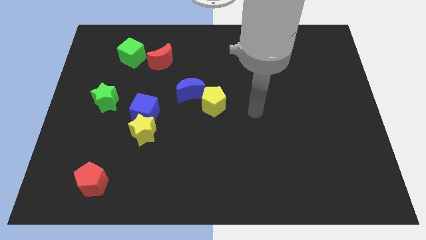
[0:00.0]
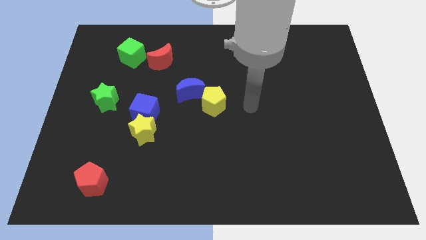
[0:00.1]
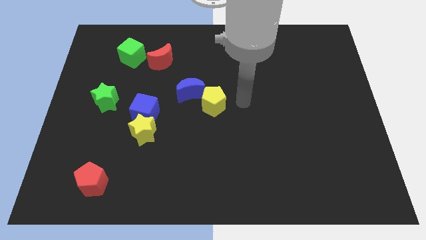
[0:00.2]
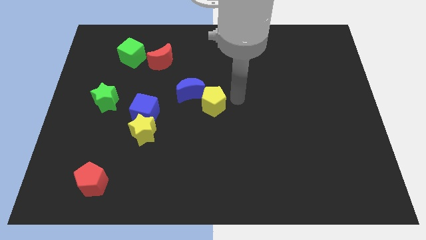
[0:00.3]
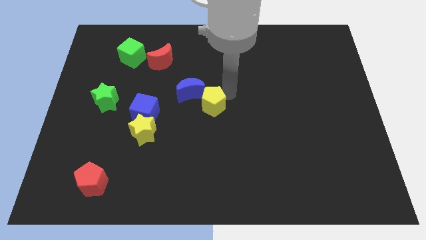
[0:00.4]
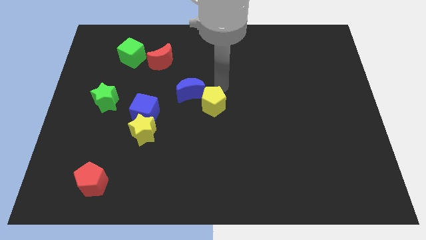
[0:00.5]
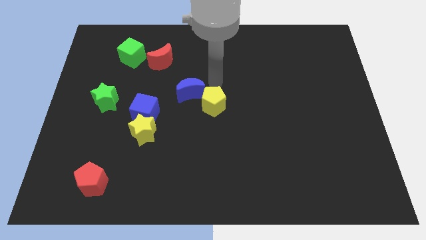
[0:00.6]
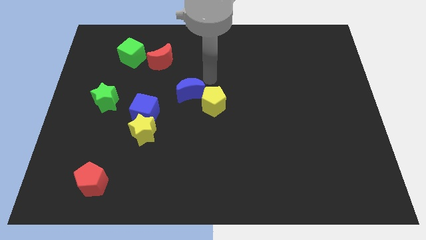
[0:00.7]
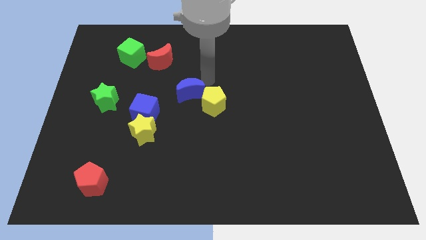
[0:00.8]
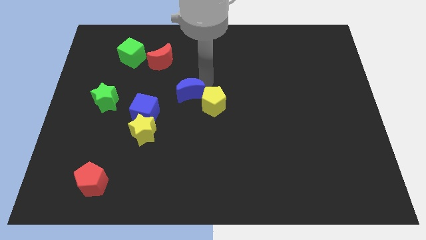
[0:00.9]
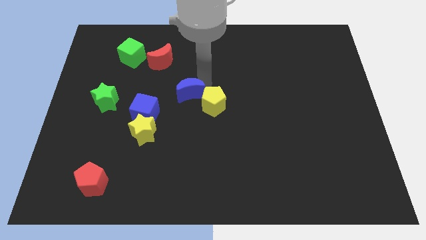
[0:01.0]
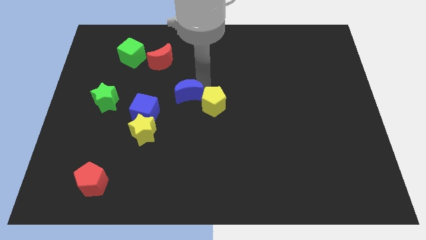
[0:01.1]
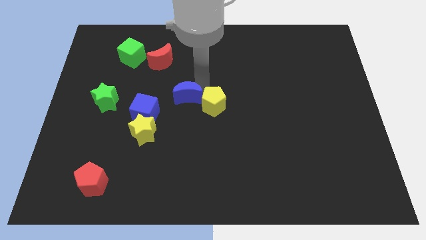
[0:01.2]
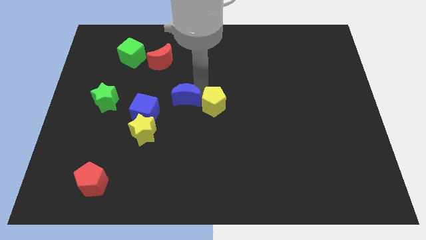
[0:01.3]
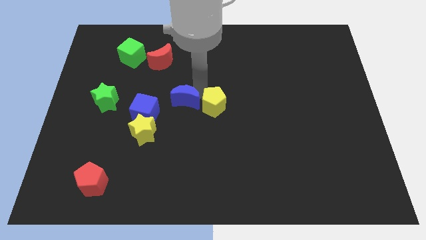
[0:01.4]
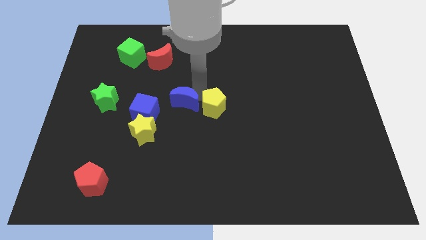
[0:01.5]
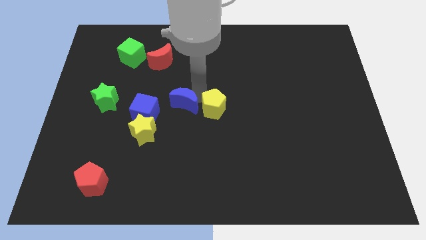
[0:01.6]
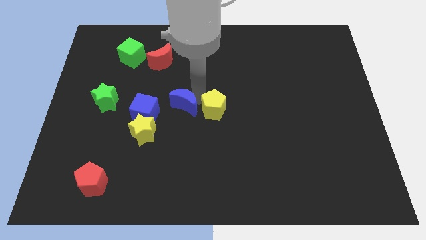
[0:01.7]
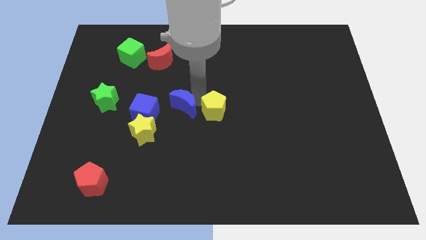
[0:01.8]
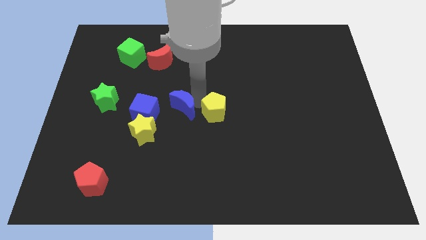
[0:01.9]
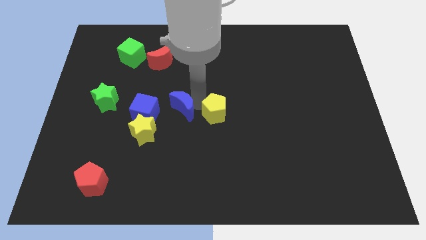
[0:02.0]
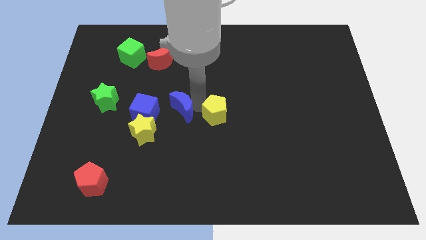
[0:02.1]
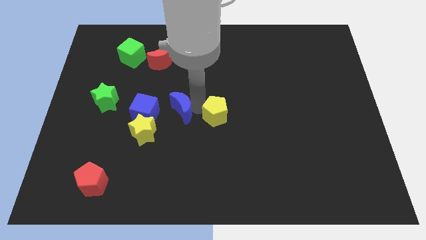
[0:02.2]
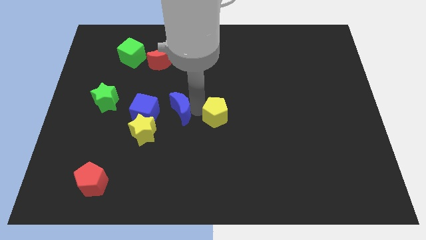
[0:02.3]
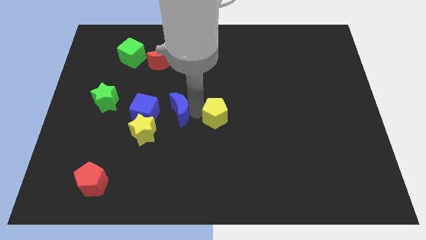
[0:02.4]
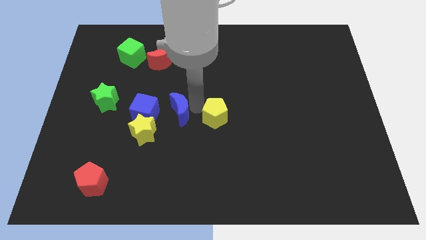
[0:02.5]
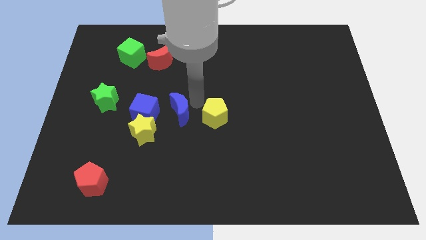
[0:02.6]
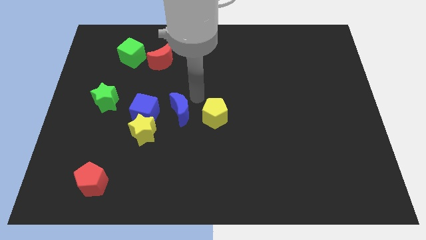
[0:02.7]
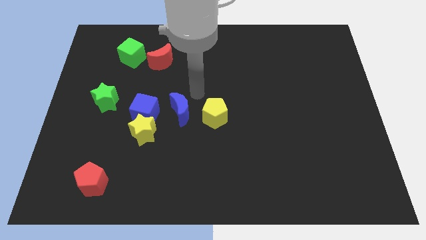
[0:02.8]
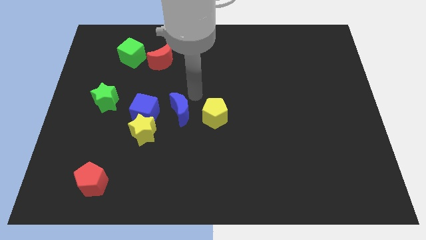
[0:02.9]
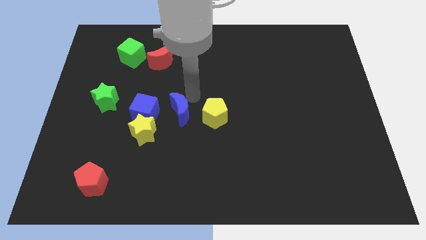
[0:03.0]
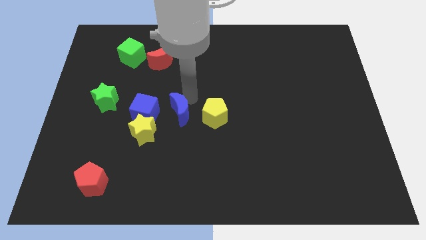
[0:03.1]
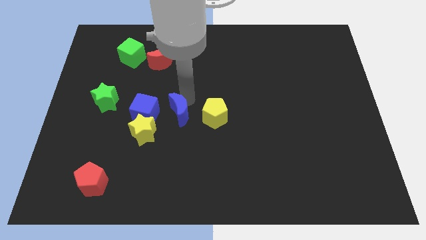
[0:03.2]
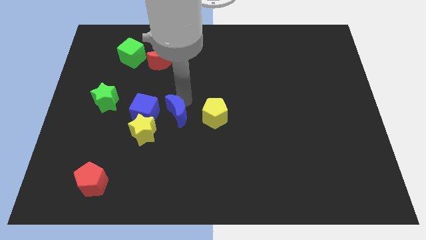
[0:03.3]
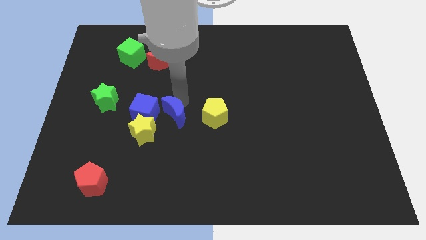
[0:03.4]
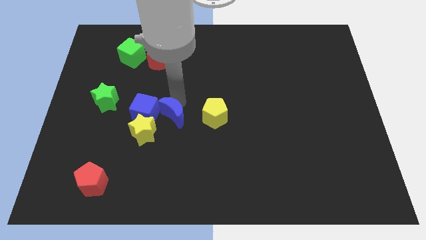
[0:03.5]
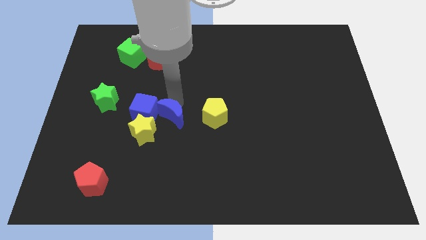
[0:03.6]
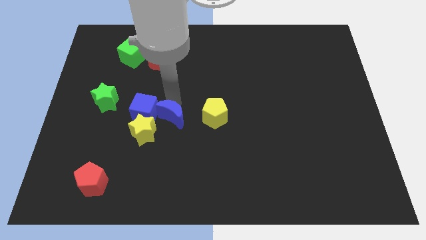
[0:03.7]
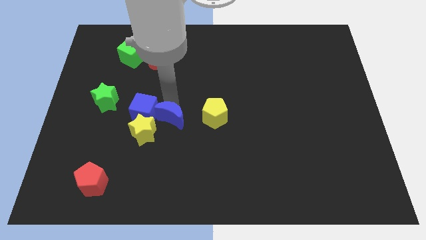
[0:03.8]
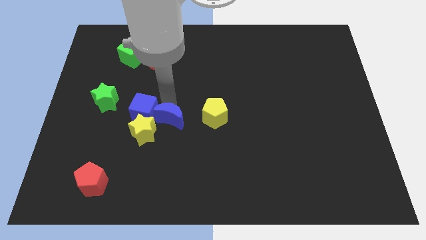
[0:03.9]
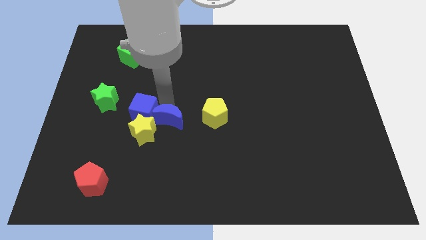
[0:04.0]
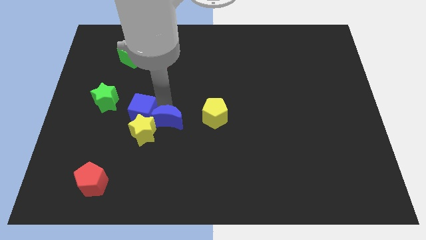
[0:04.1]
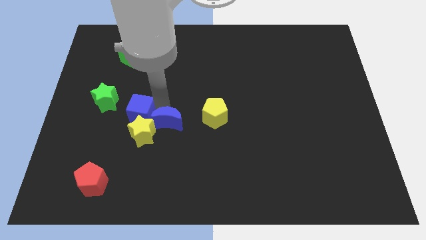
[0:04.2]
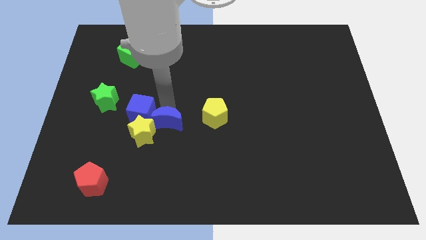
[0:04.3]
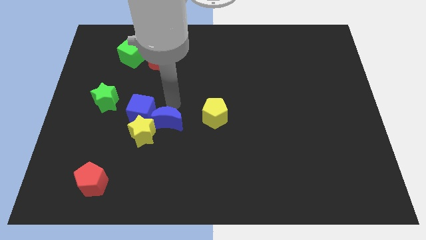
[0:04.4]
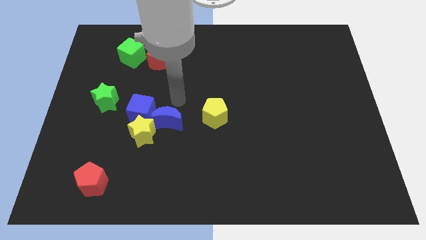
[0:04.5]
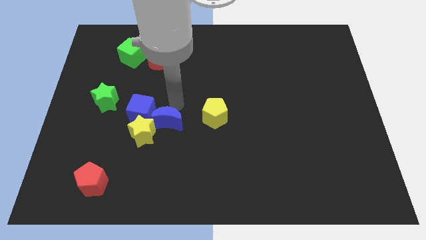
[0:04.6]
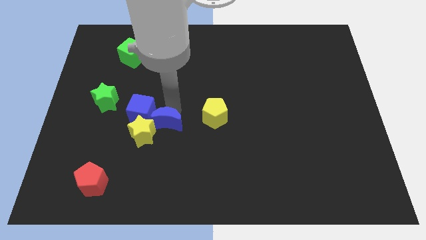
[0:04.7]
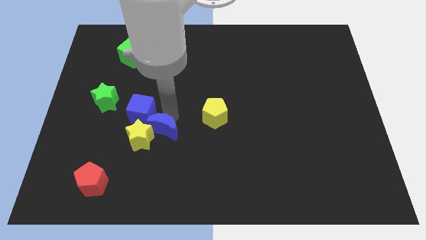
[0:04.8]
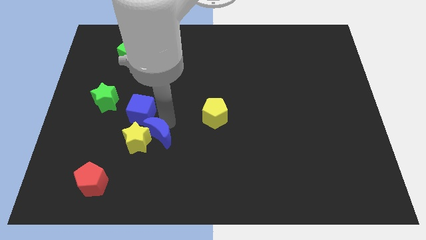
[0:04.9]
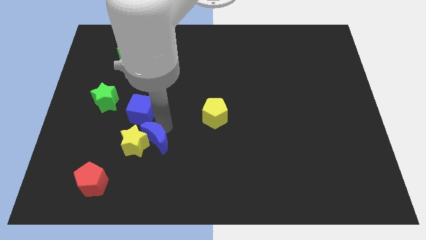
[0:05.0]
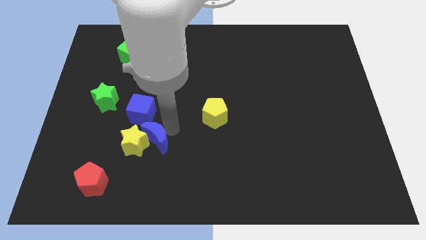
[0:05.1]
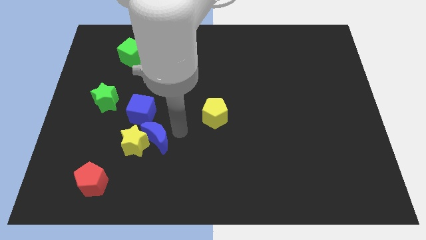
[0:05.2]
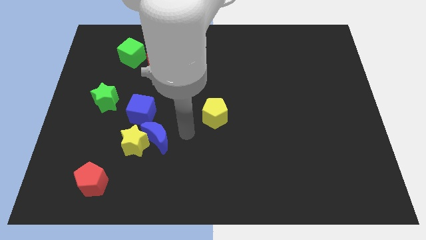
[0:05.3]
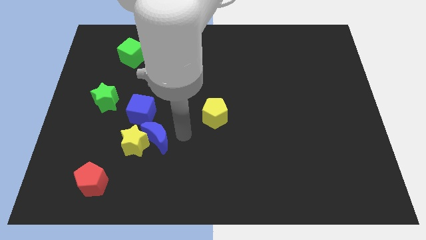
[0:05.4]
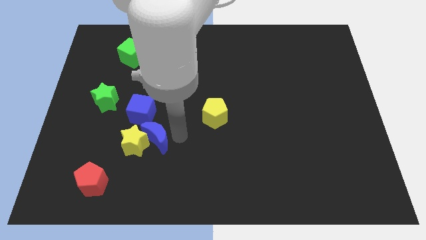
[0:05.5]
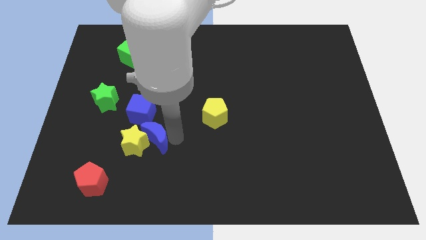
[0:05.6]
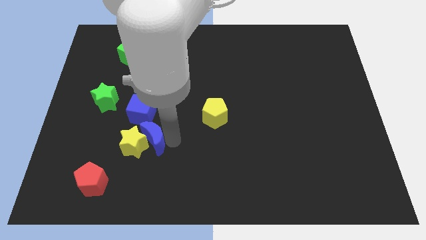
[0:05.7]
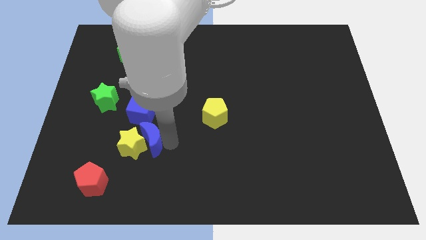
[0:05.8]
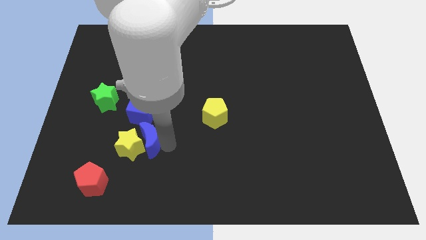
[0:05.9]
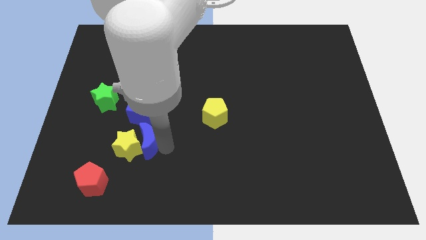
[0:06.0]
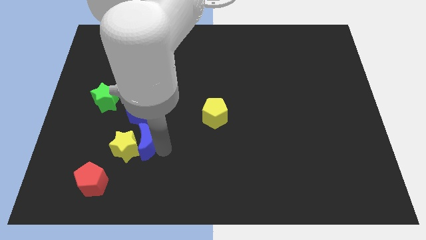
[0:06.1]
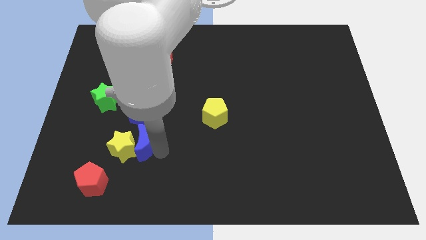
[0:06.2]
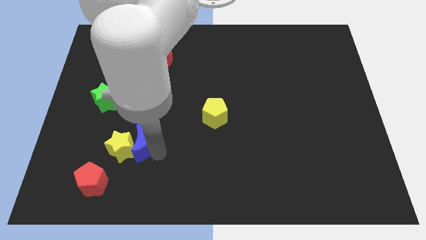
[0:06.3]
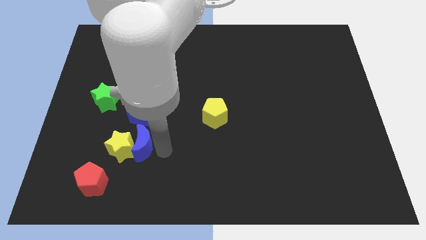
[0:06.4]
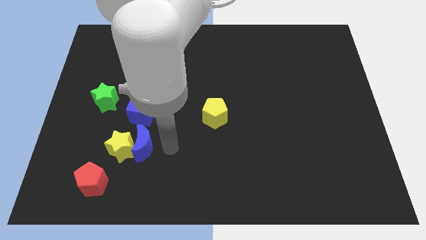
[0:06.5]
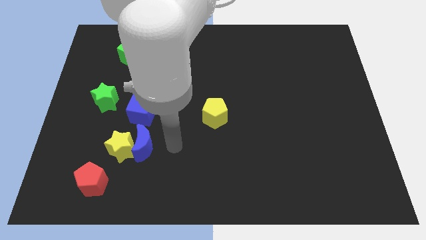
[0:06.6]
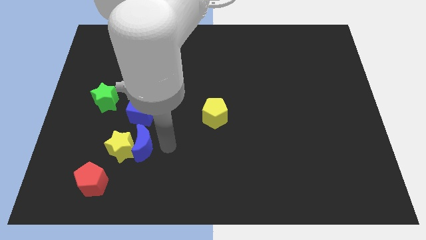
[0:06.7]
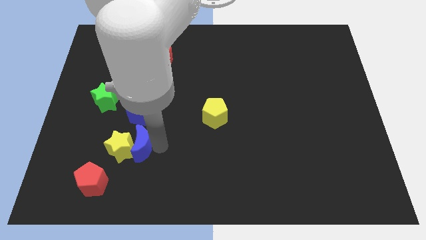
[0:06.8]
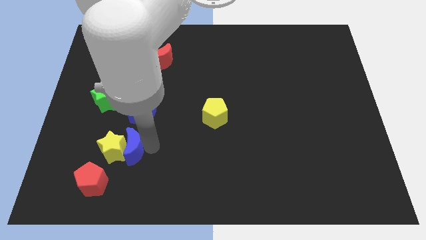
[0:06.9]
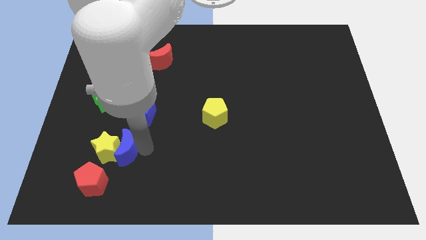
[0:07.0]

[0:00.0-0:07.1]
slide the blue moon down and then to the left

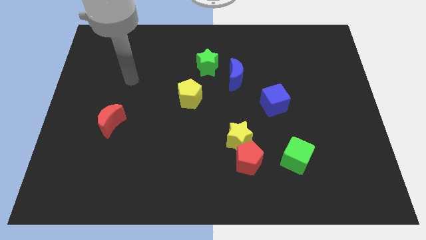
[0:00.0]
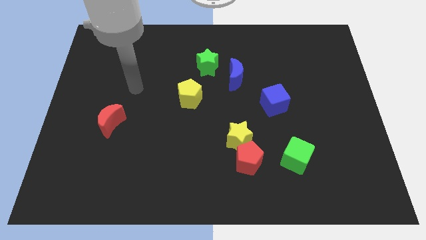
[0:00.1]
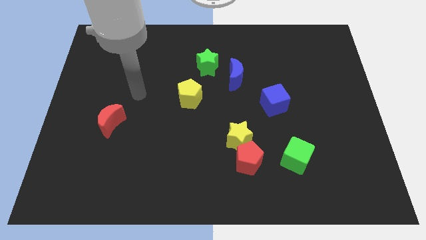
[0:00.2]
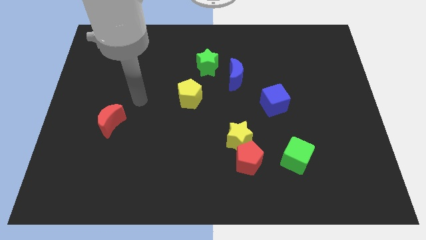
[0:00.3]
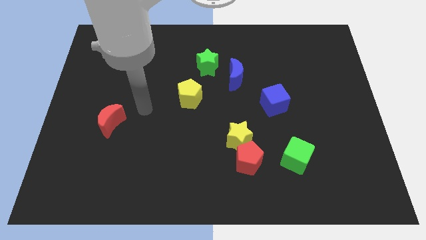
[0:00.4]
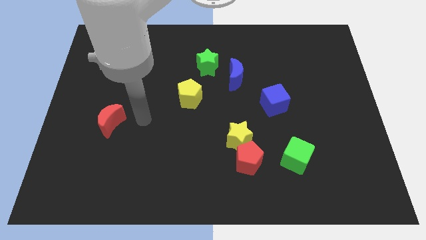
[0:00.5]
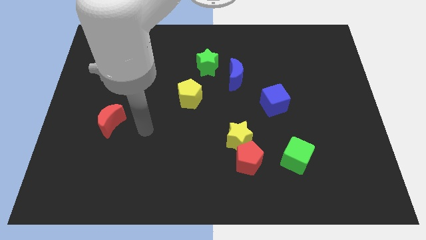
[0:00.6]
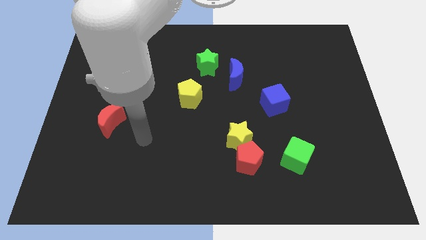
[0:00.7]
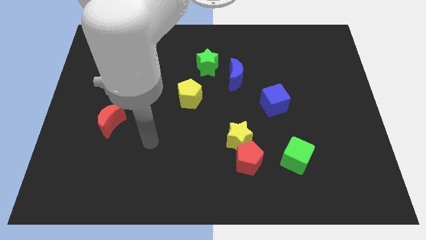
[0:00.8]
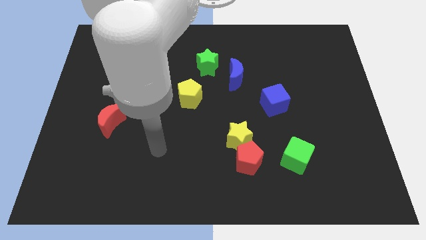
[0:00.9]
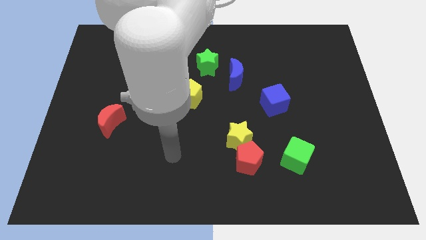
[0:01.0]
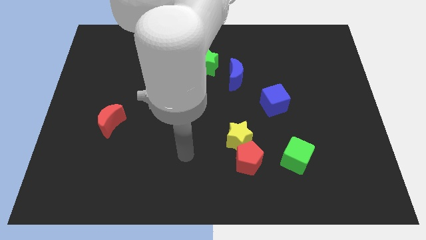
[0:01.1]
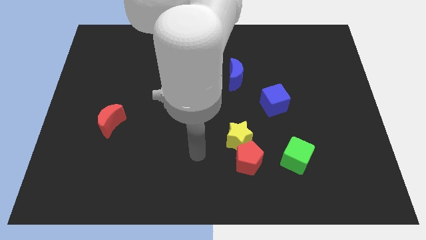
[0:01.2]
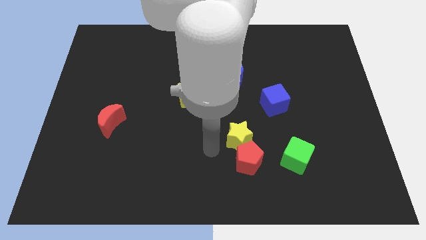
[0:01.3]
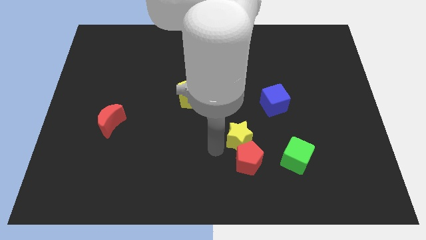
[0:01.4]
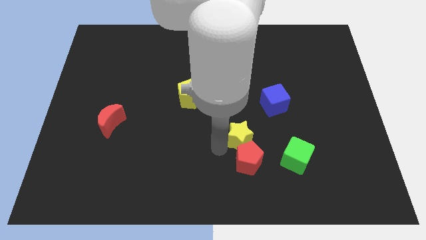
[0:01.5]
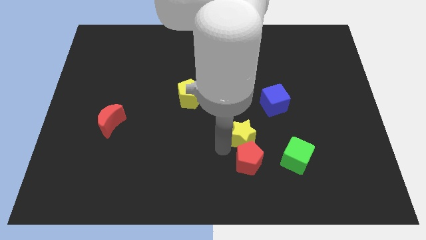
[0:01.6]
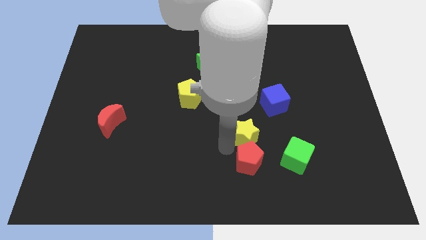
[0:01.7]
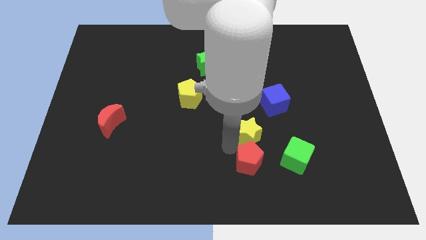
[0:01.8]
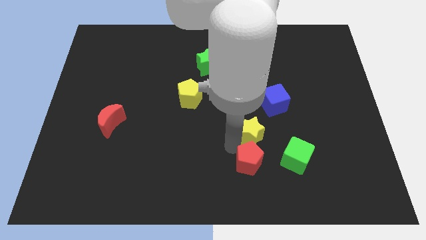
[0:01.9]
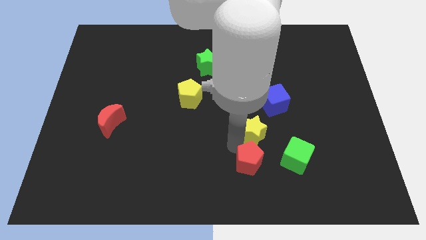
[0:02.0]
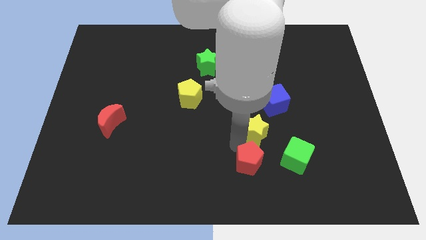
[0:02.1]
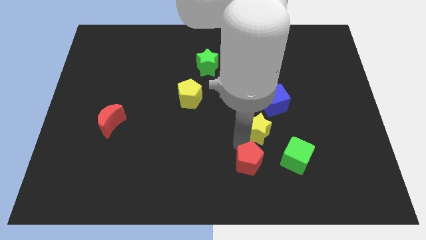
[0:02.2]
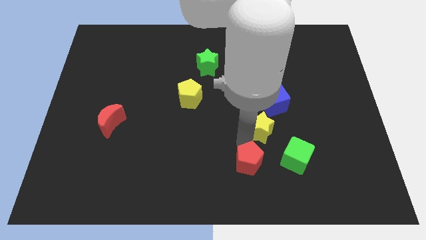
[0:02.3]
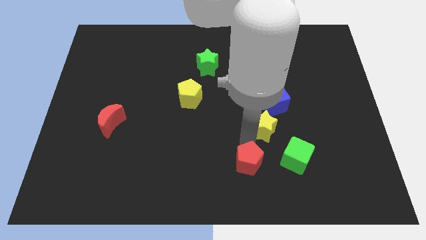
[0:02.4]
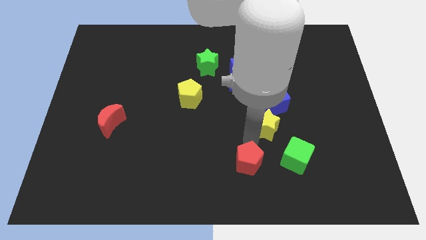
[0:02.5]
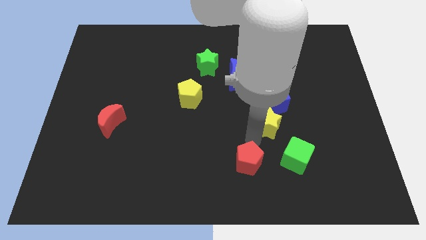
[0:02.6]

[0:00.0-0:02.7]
slightly push the yellow star diagonally up and right
